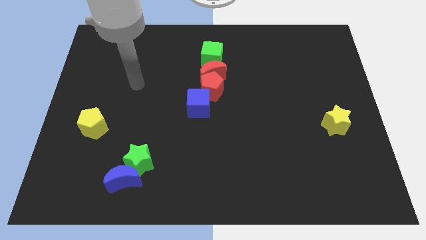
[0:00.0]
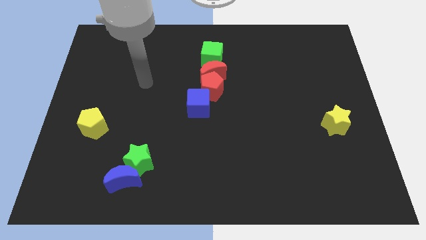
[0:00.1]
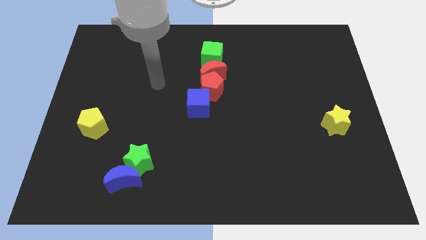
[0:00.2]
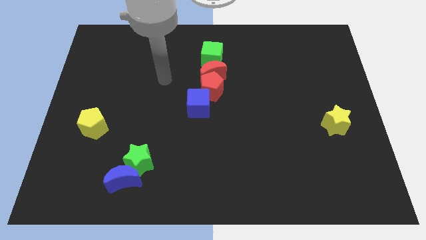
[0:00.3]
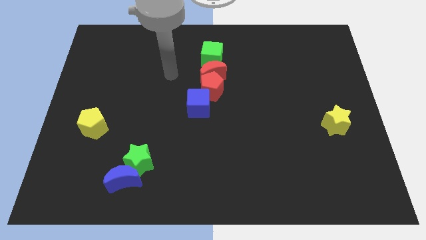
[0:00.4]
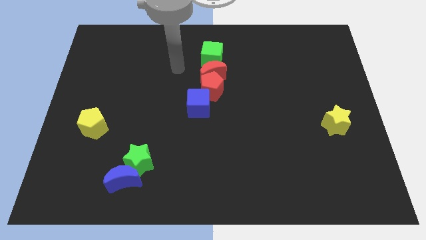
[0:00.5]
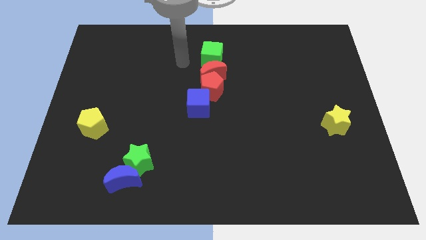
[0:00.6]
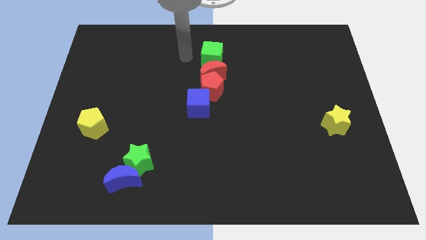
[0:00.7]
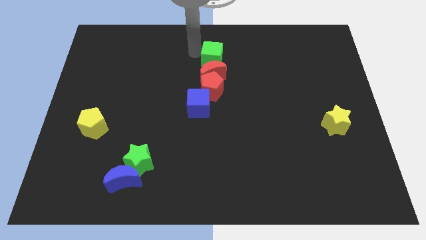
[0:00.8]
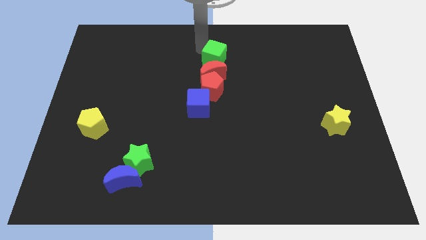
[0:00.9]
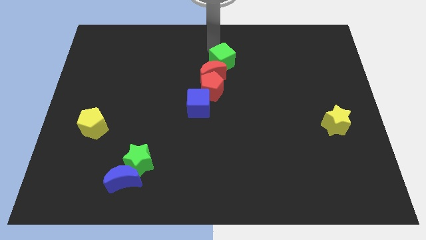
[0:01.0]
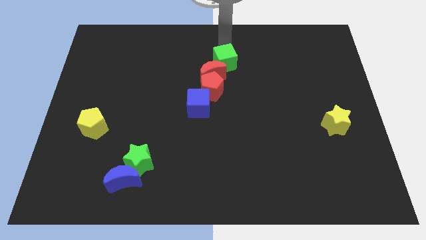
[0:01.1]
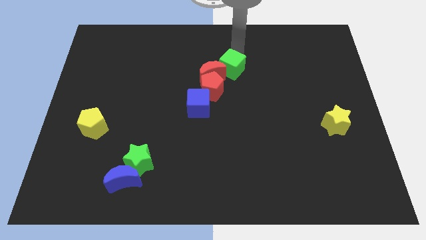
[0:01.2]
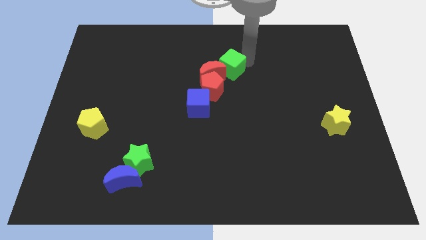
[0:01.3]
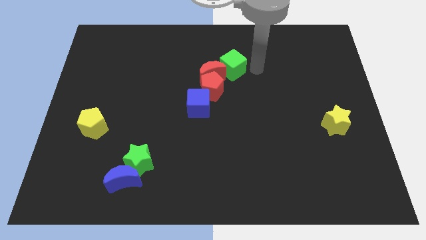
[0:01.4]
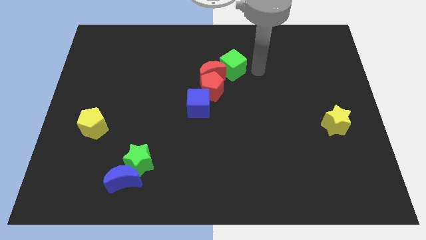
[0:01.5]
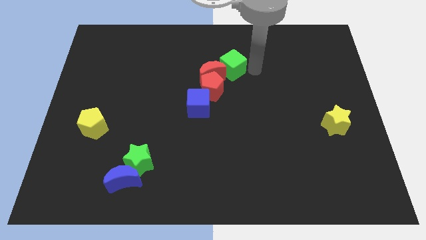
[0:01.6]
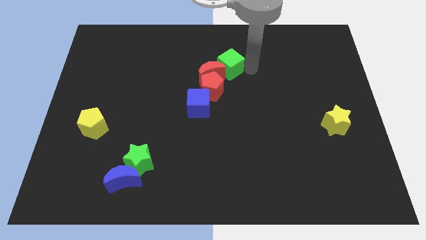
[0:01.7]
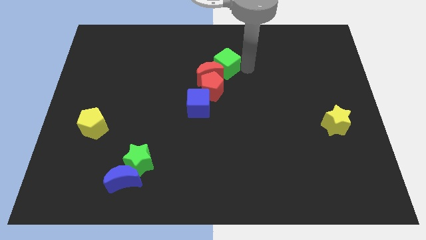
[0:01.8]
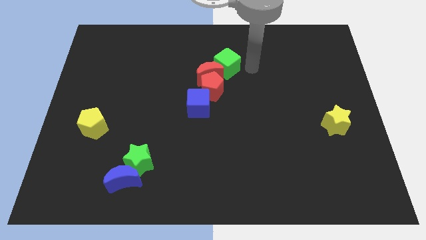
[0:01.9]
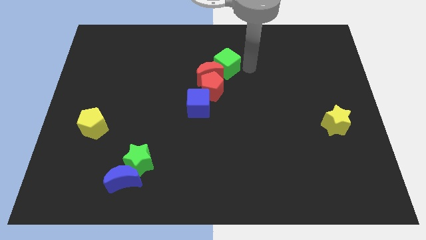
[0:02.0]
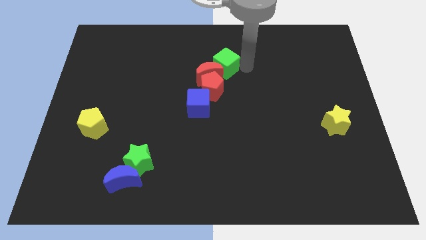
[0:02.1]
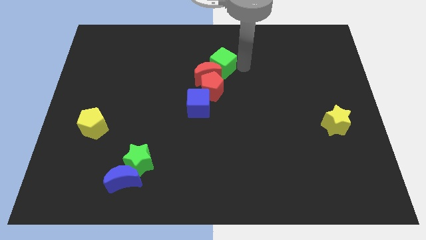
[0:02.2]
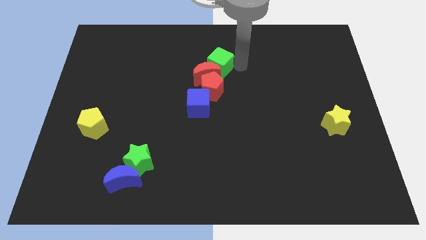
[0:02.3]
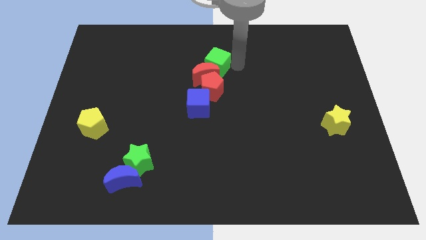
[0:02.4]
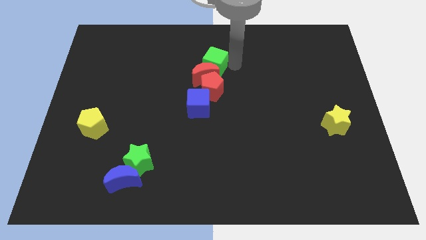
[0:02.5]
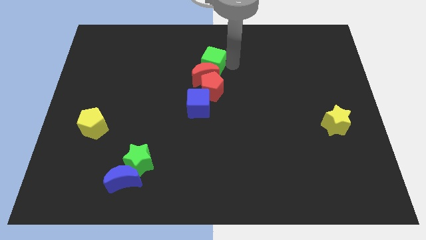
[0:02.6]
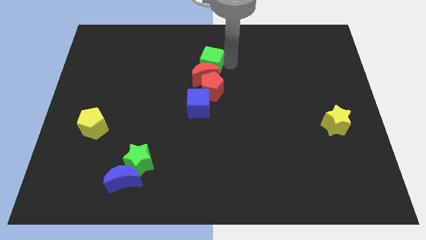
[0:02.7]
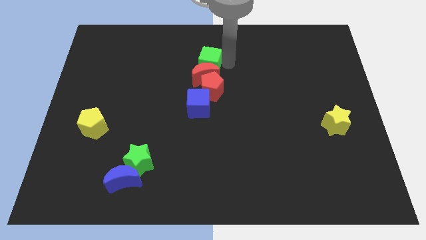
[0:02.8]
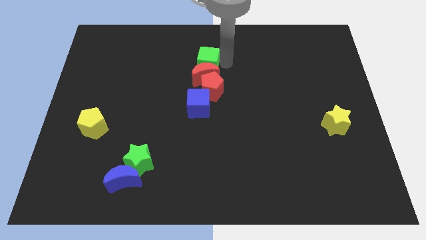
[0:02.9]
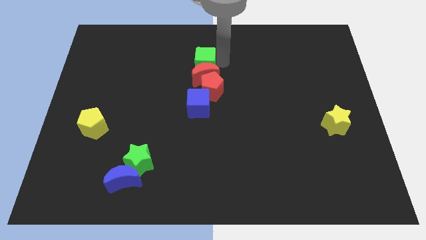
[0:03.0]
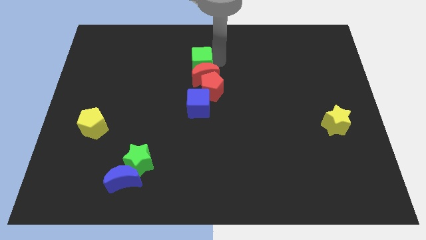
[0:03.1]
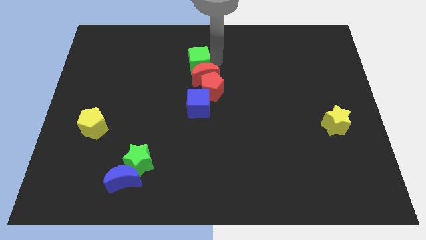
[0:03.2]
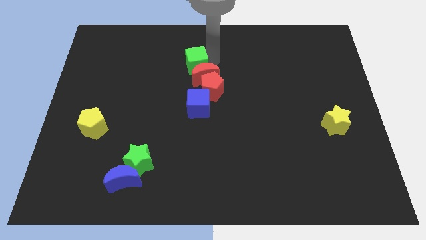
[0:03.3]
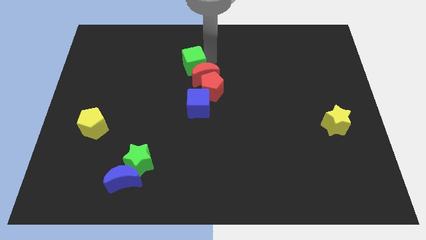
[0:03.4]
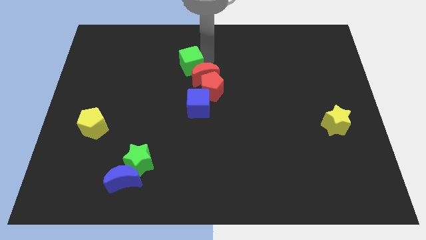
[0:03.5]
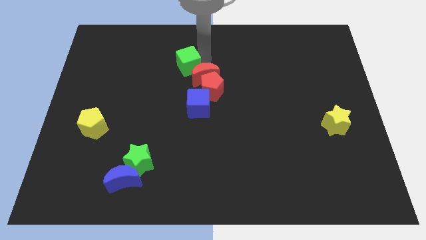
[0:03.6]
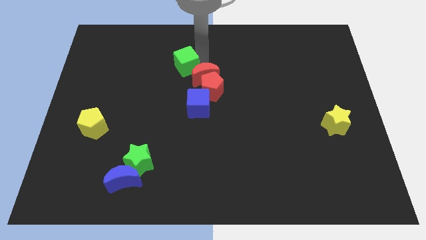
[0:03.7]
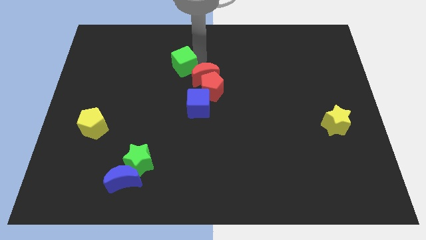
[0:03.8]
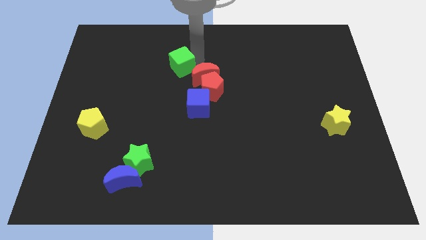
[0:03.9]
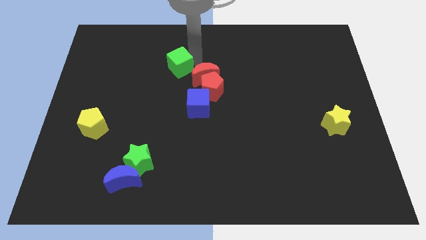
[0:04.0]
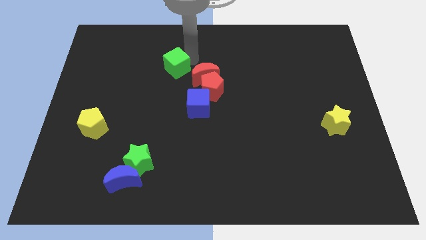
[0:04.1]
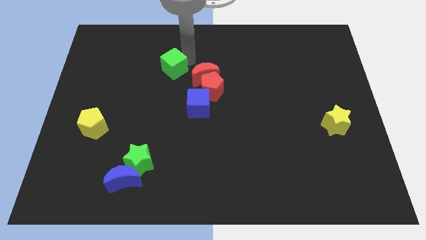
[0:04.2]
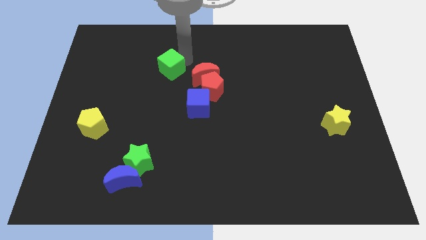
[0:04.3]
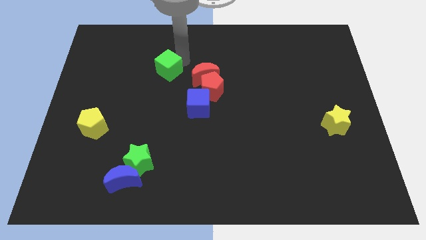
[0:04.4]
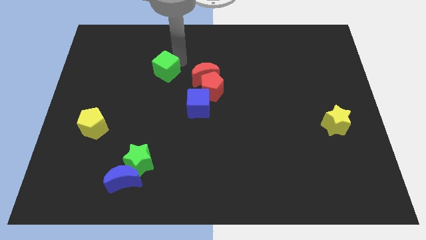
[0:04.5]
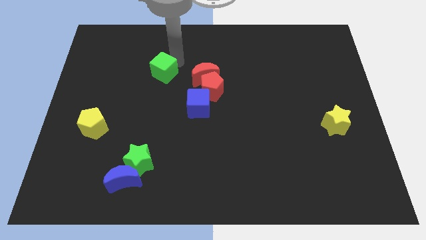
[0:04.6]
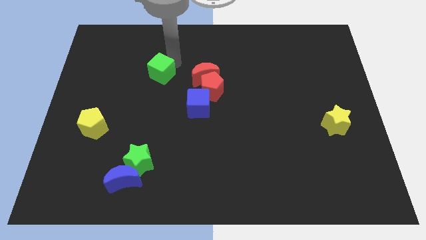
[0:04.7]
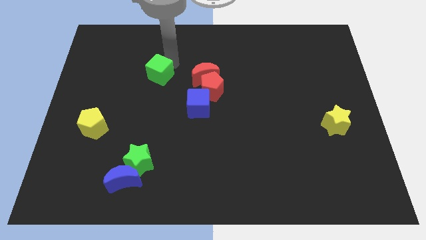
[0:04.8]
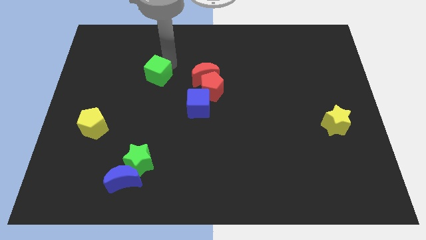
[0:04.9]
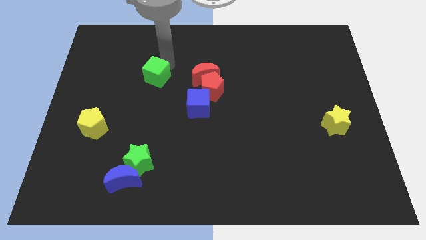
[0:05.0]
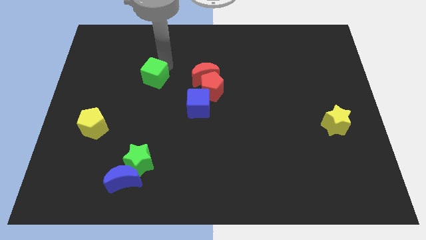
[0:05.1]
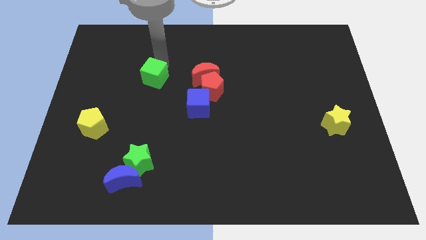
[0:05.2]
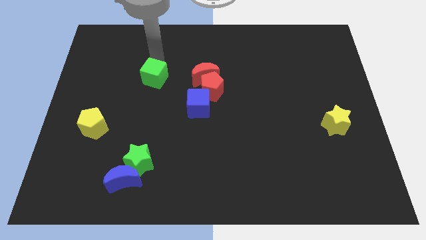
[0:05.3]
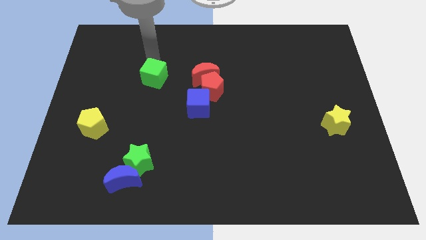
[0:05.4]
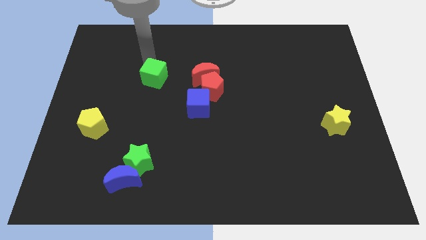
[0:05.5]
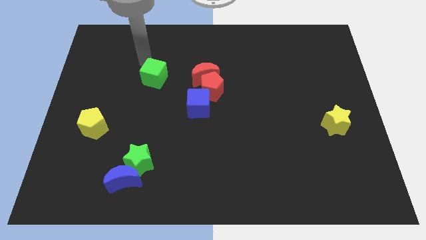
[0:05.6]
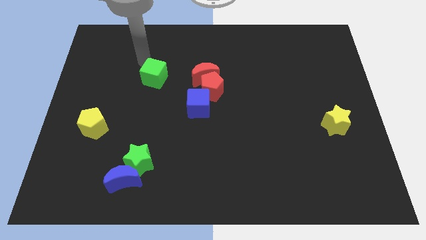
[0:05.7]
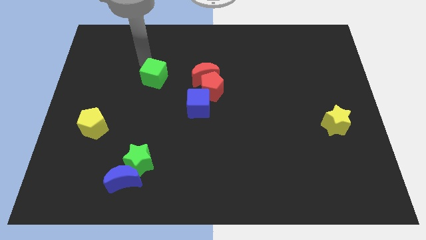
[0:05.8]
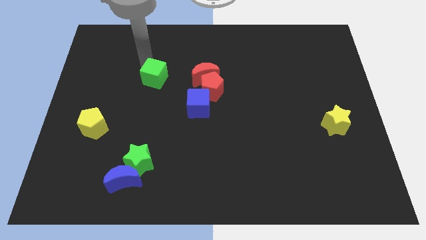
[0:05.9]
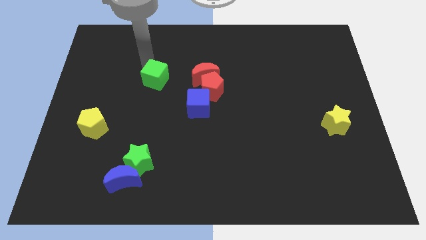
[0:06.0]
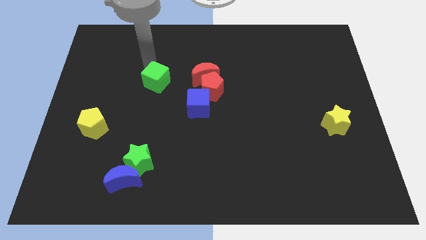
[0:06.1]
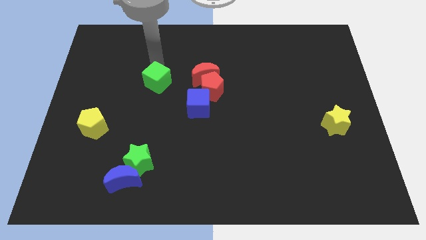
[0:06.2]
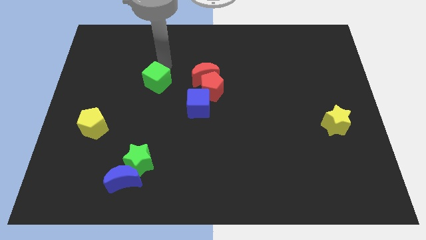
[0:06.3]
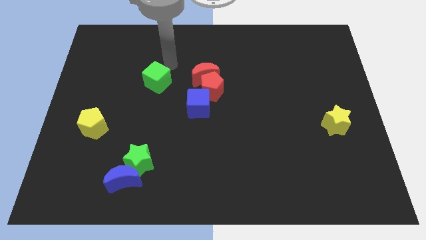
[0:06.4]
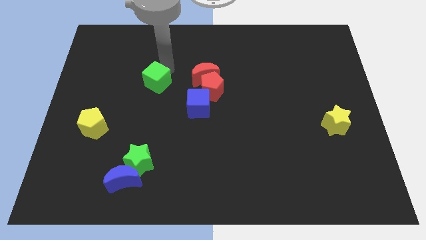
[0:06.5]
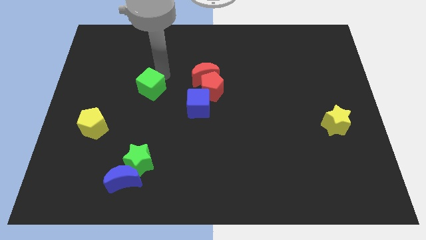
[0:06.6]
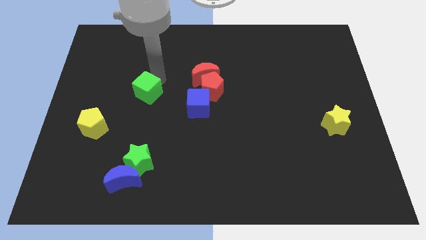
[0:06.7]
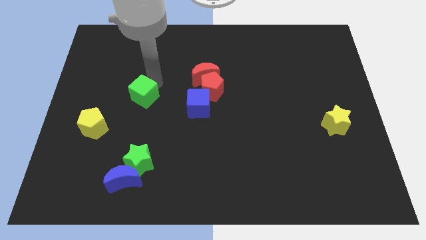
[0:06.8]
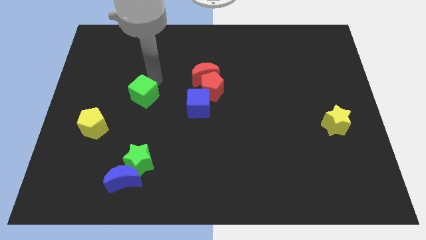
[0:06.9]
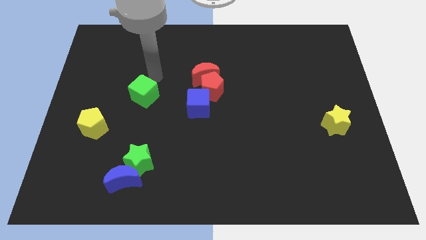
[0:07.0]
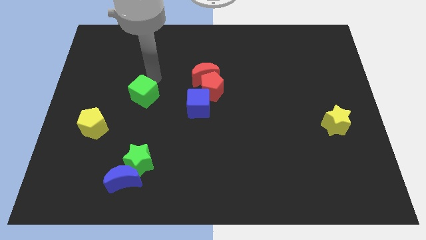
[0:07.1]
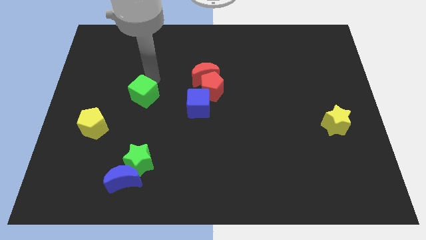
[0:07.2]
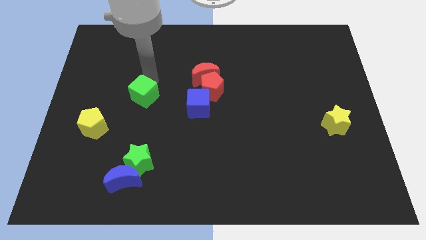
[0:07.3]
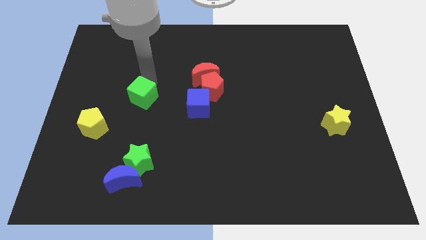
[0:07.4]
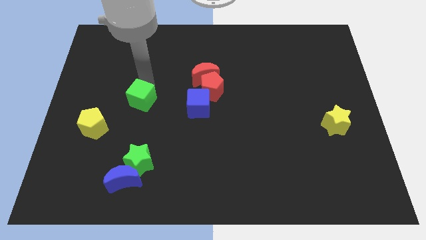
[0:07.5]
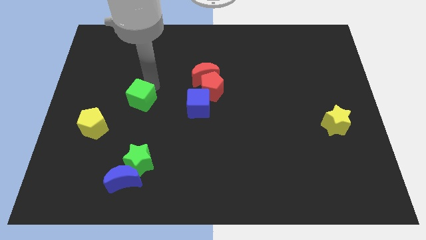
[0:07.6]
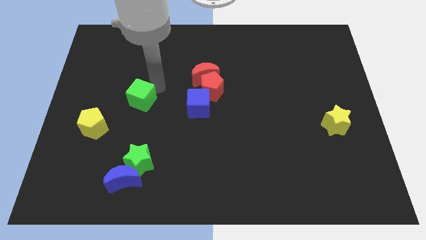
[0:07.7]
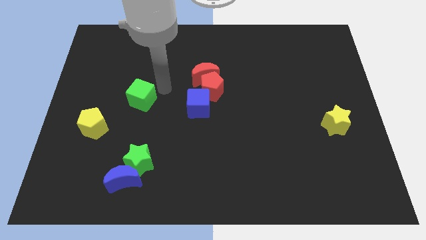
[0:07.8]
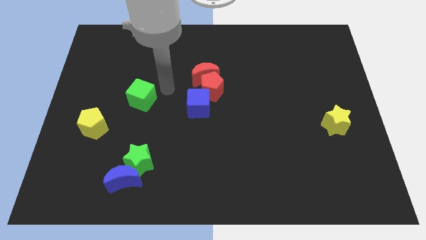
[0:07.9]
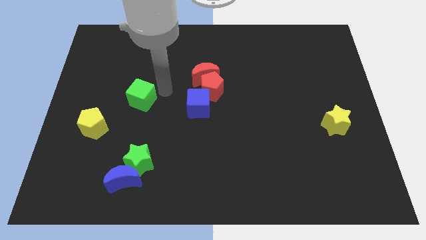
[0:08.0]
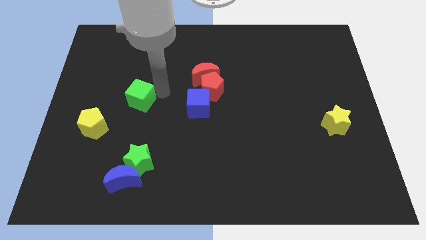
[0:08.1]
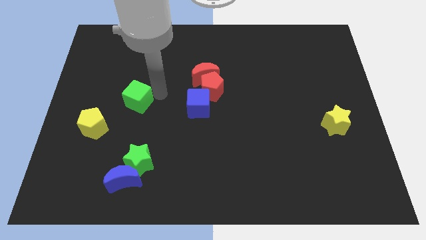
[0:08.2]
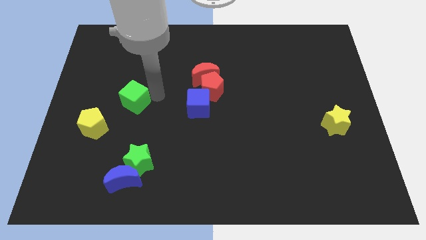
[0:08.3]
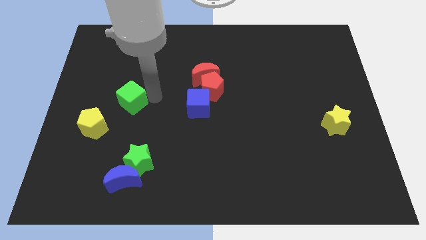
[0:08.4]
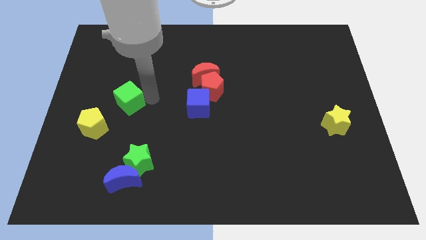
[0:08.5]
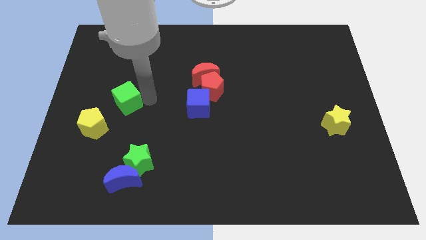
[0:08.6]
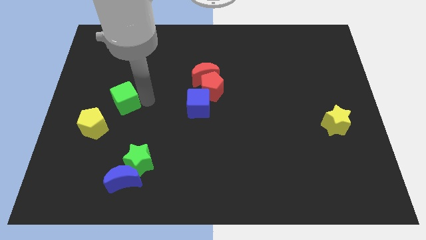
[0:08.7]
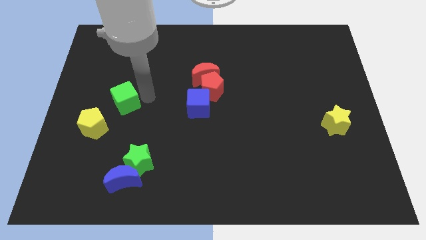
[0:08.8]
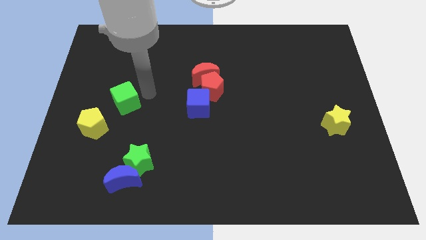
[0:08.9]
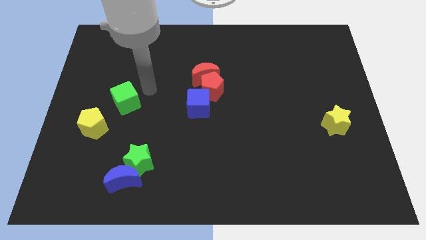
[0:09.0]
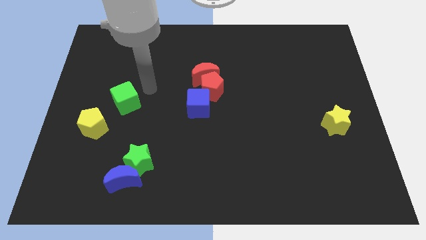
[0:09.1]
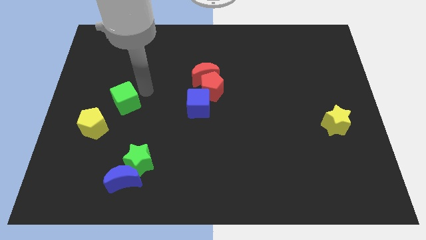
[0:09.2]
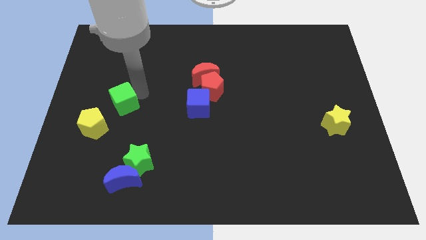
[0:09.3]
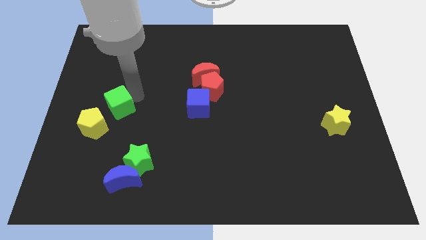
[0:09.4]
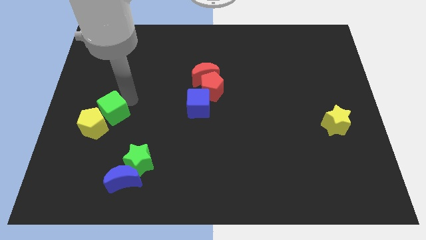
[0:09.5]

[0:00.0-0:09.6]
slide the green cube towards the yellow pentagon
